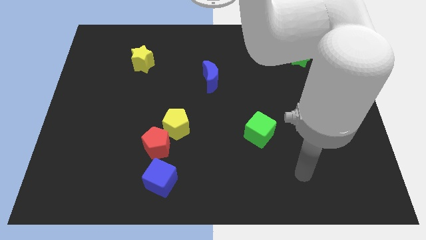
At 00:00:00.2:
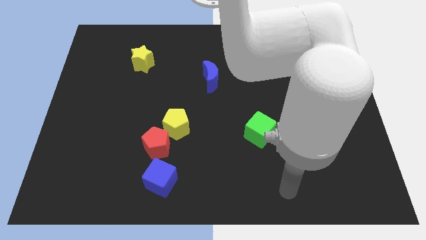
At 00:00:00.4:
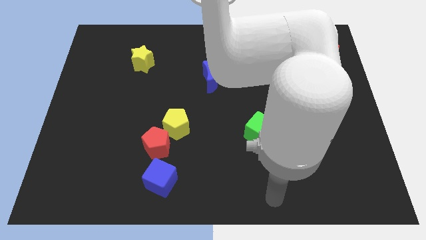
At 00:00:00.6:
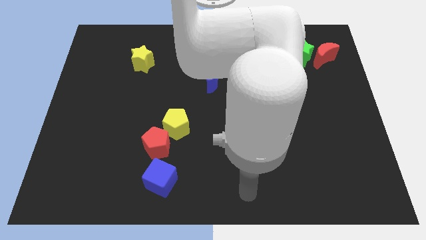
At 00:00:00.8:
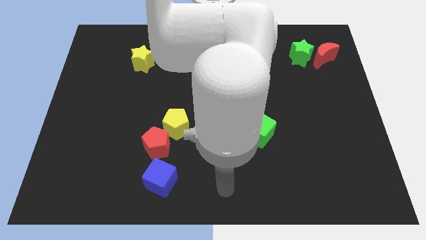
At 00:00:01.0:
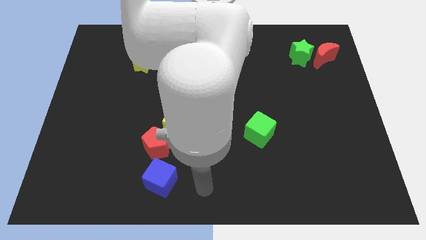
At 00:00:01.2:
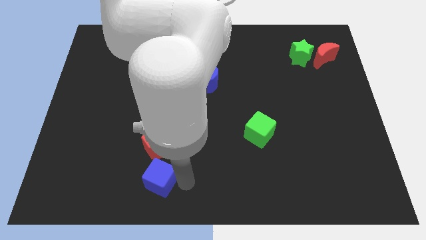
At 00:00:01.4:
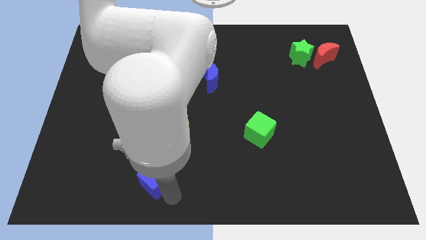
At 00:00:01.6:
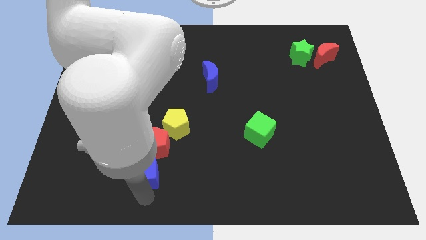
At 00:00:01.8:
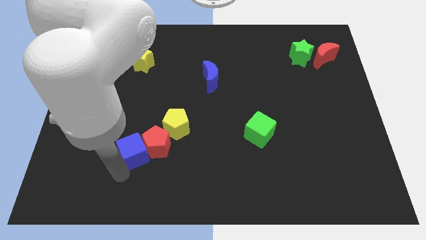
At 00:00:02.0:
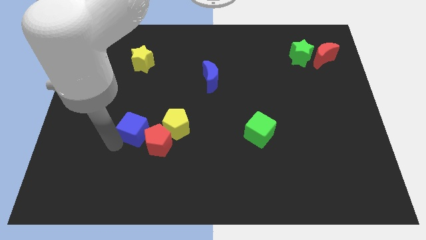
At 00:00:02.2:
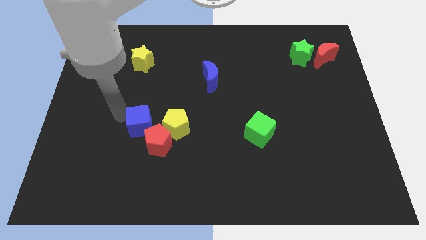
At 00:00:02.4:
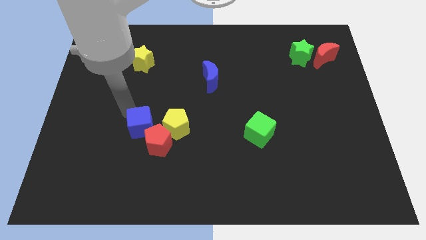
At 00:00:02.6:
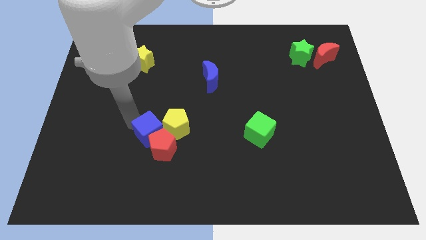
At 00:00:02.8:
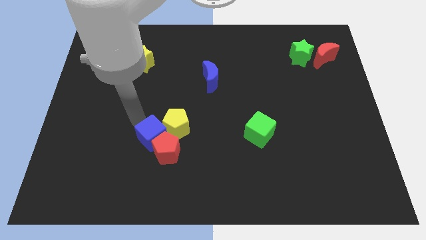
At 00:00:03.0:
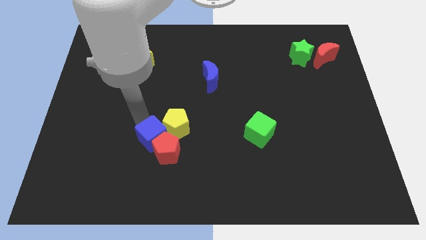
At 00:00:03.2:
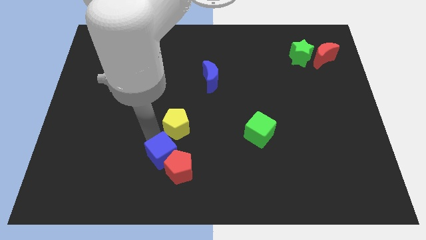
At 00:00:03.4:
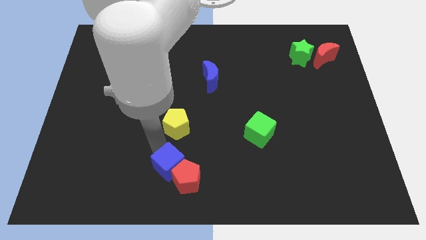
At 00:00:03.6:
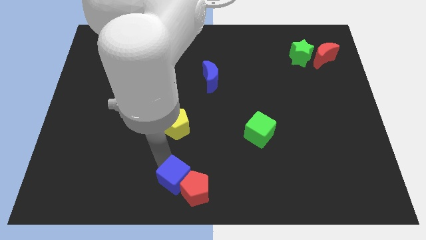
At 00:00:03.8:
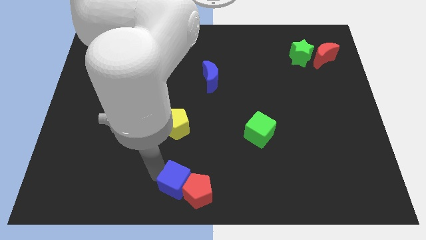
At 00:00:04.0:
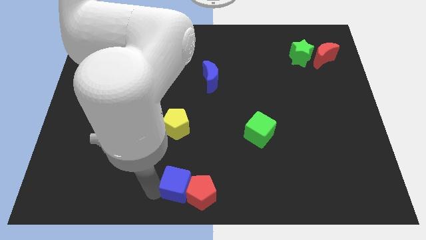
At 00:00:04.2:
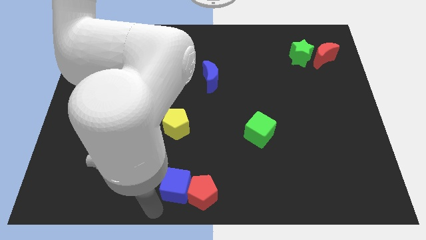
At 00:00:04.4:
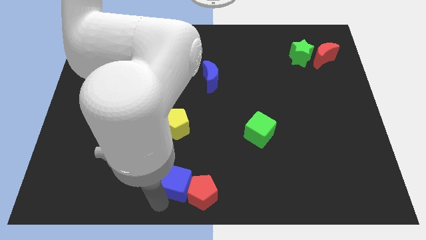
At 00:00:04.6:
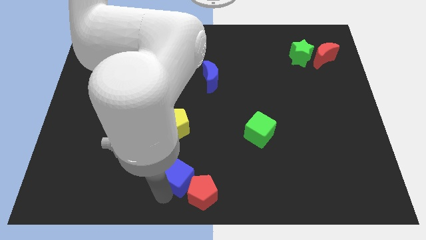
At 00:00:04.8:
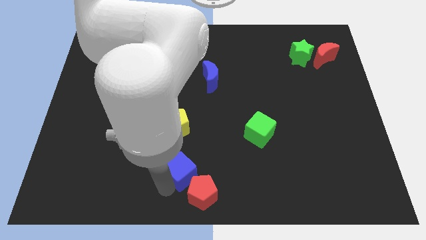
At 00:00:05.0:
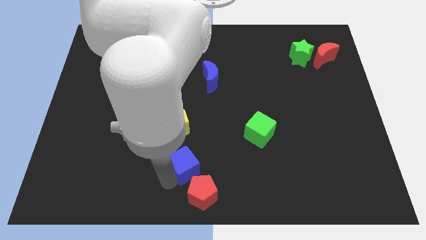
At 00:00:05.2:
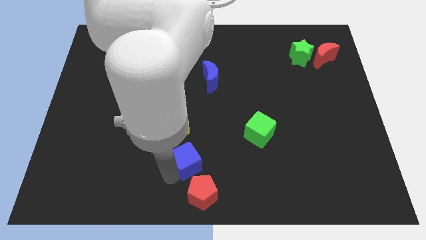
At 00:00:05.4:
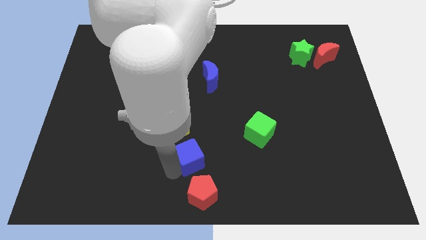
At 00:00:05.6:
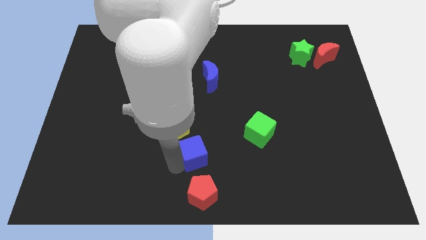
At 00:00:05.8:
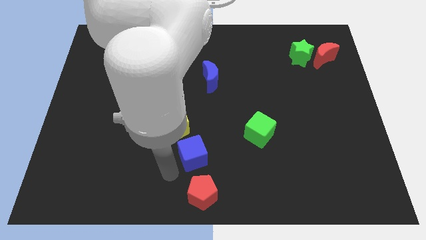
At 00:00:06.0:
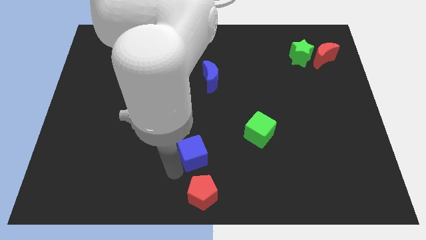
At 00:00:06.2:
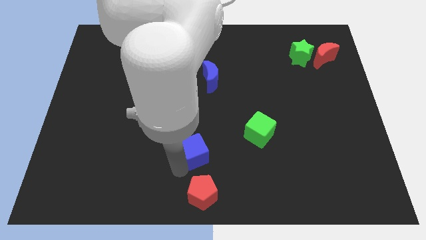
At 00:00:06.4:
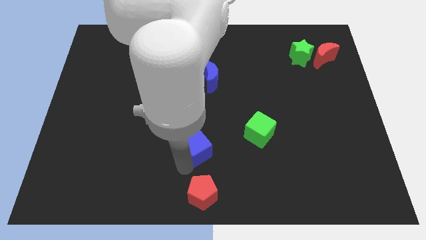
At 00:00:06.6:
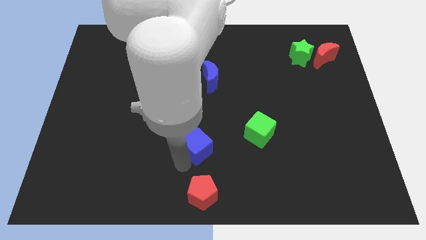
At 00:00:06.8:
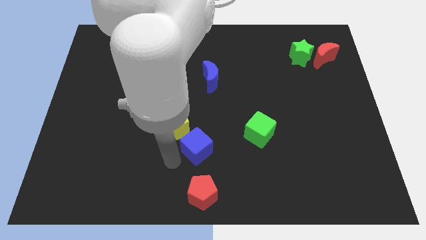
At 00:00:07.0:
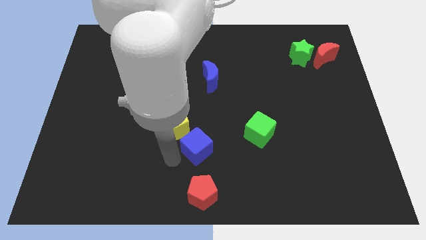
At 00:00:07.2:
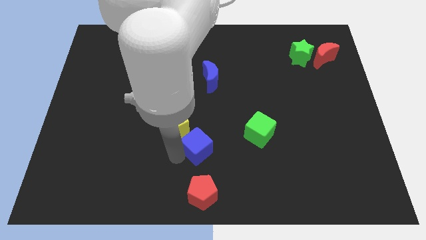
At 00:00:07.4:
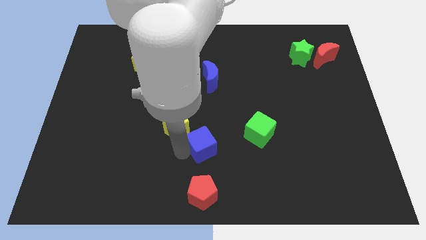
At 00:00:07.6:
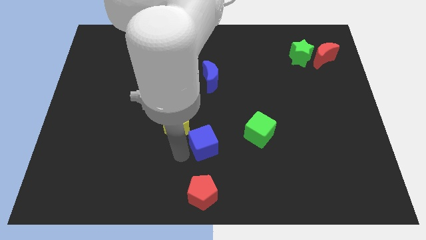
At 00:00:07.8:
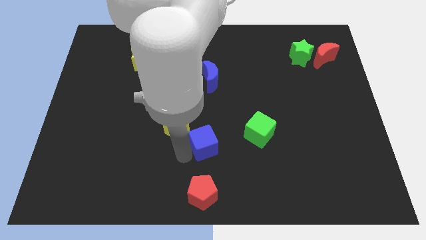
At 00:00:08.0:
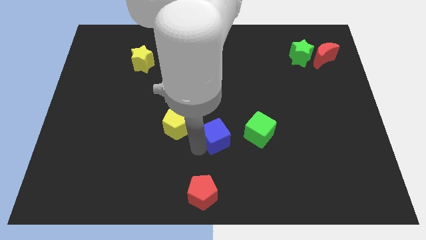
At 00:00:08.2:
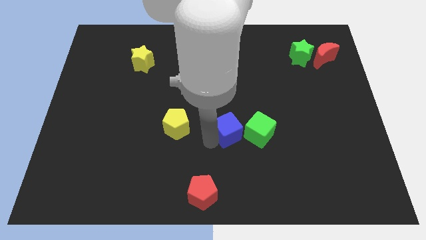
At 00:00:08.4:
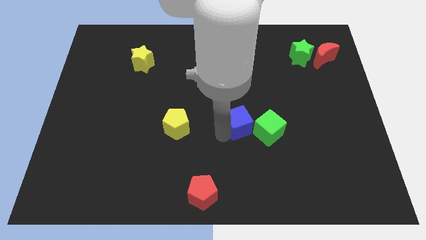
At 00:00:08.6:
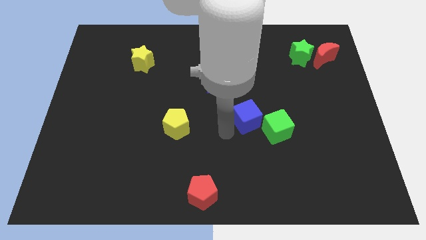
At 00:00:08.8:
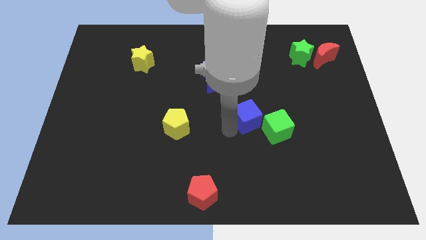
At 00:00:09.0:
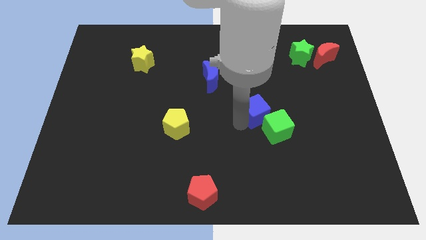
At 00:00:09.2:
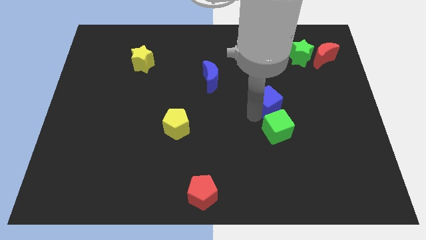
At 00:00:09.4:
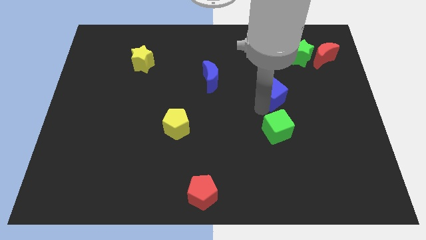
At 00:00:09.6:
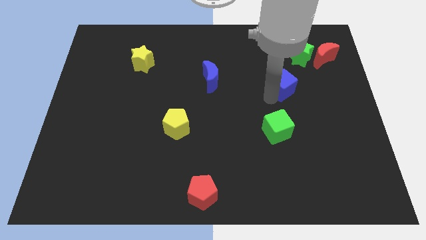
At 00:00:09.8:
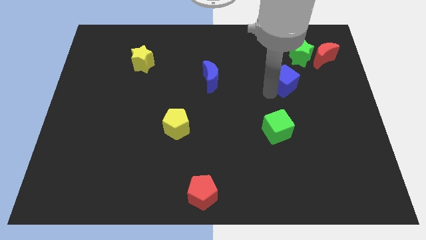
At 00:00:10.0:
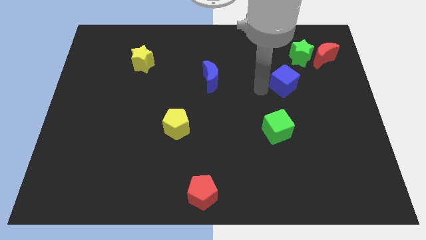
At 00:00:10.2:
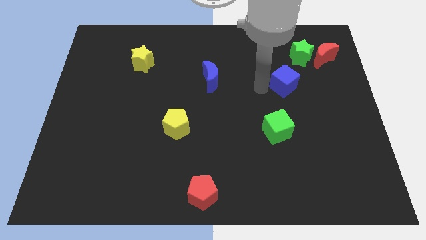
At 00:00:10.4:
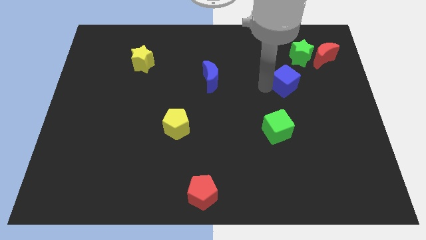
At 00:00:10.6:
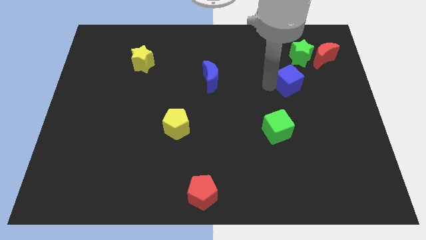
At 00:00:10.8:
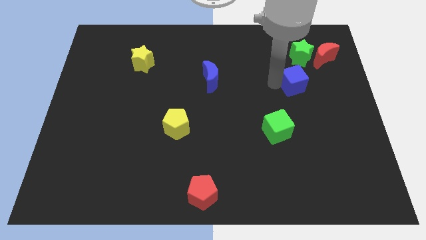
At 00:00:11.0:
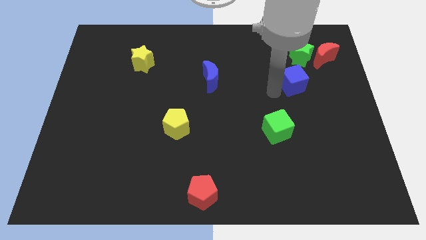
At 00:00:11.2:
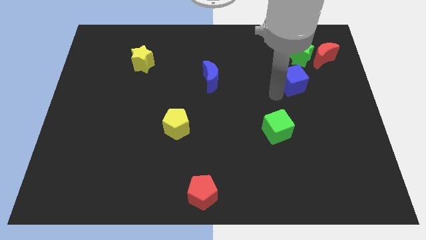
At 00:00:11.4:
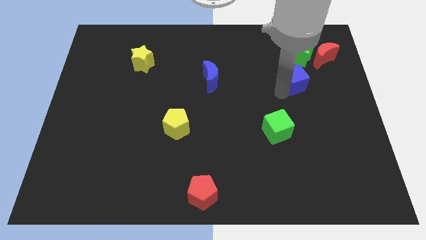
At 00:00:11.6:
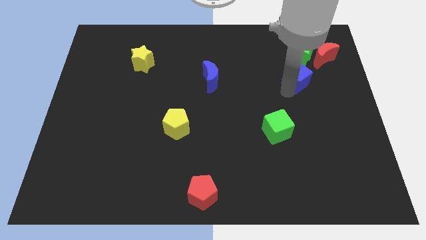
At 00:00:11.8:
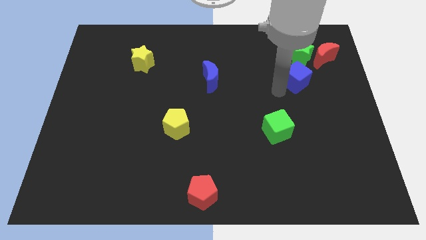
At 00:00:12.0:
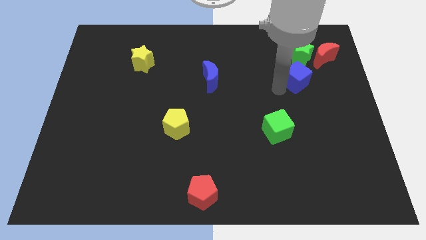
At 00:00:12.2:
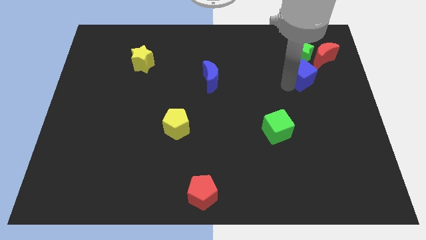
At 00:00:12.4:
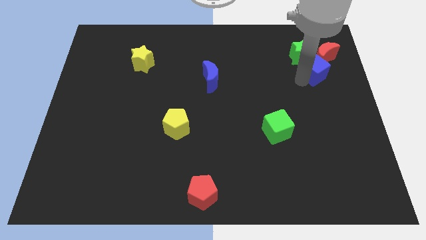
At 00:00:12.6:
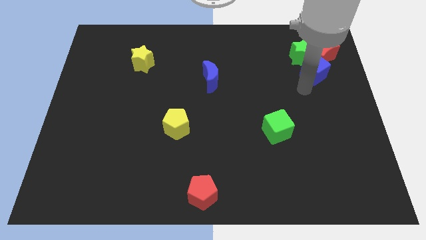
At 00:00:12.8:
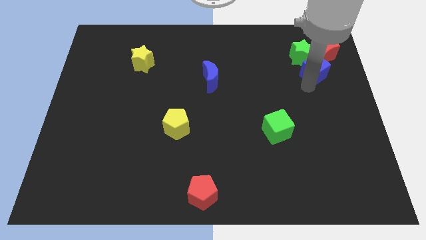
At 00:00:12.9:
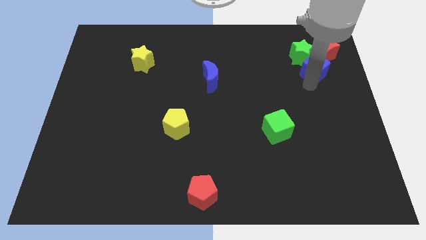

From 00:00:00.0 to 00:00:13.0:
slide the blue cube close to the red moon

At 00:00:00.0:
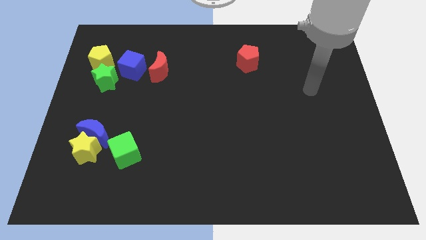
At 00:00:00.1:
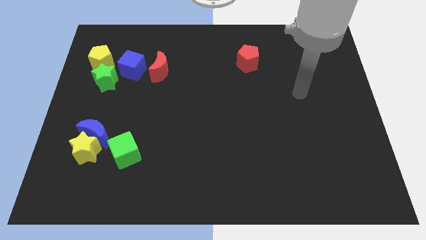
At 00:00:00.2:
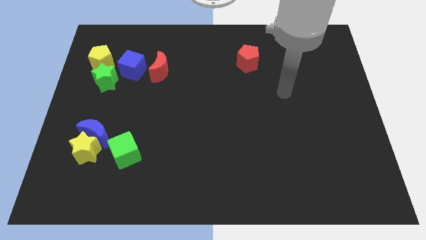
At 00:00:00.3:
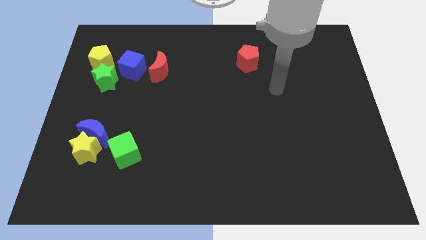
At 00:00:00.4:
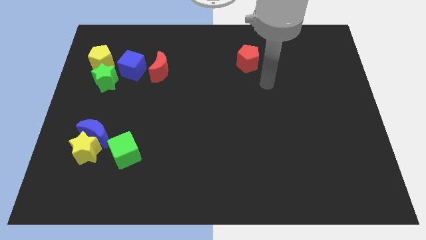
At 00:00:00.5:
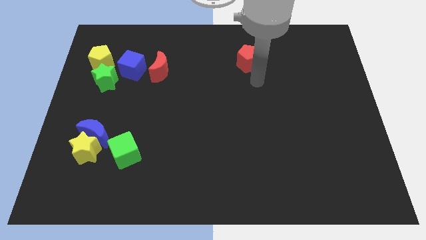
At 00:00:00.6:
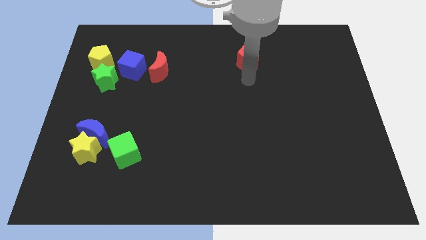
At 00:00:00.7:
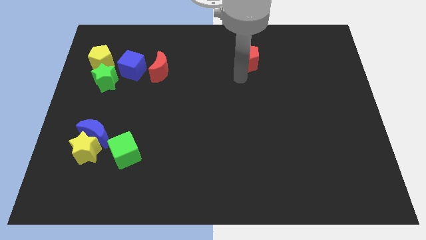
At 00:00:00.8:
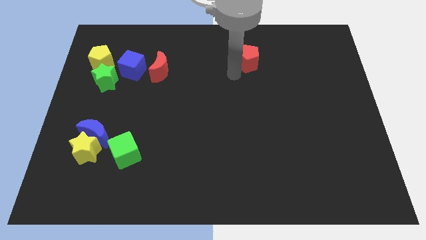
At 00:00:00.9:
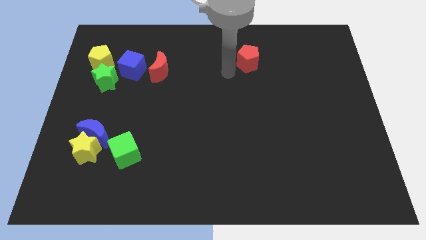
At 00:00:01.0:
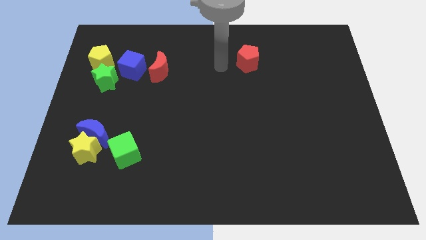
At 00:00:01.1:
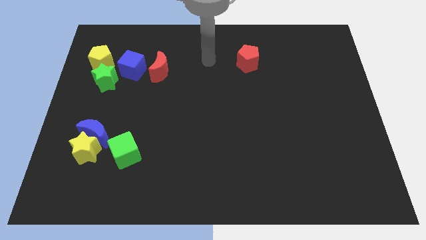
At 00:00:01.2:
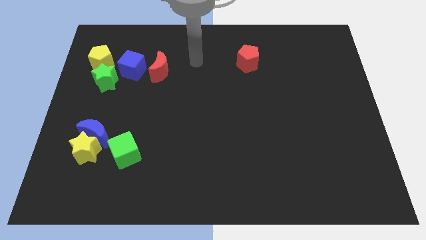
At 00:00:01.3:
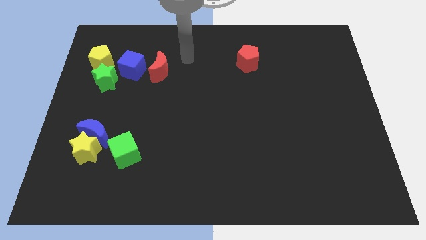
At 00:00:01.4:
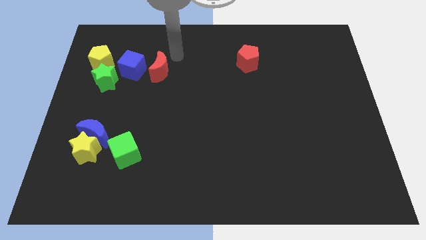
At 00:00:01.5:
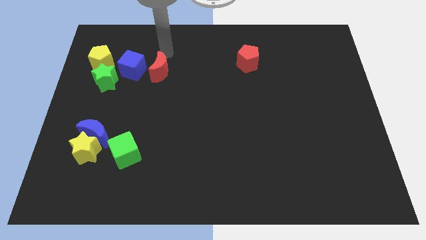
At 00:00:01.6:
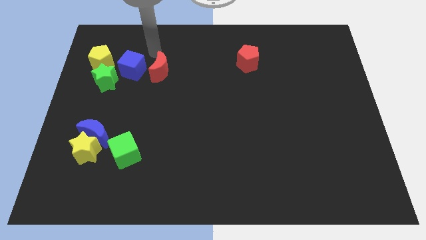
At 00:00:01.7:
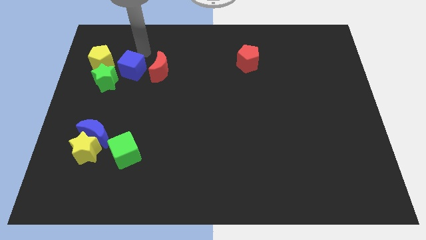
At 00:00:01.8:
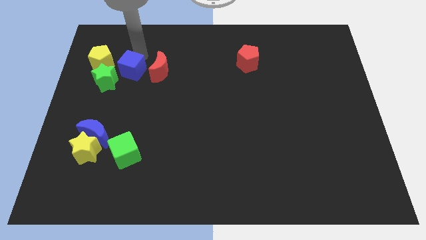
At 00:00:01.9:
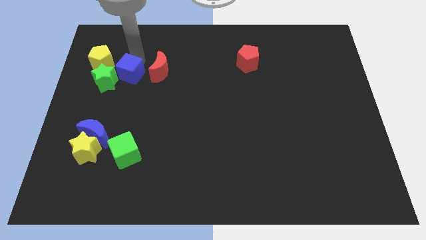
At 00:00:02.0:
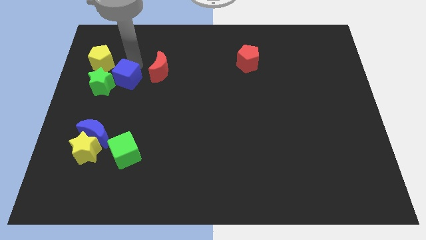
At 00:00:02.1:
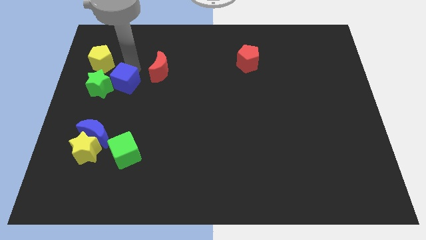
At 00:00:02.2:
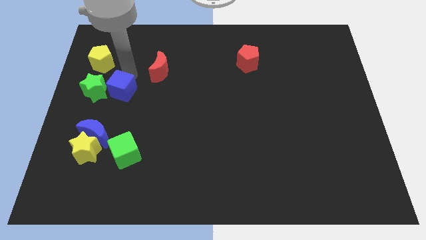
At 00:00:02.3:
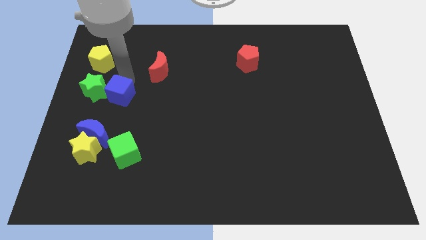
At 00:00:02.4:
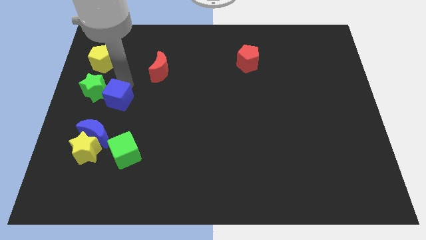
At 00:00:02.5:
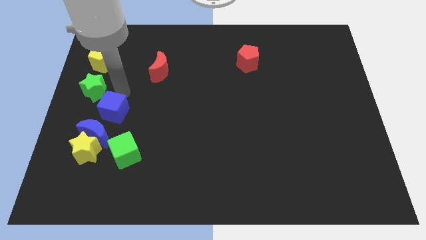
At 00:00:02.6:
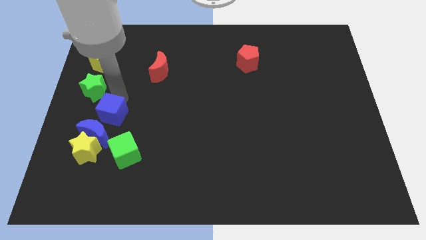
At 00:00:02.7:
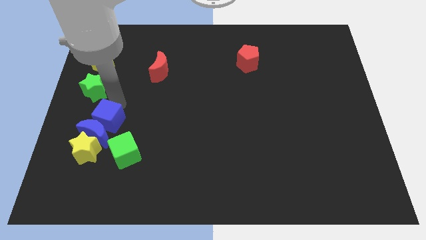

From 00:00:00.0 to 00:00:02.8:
put the blue cube next to the blue moon
